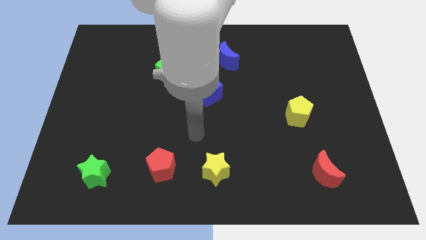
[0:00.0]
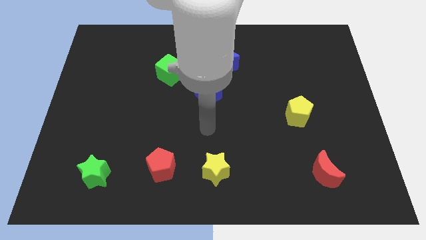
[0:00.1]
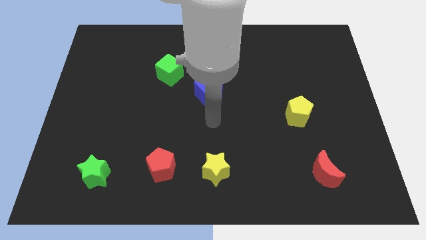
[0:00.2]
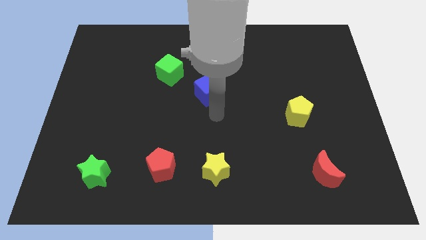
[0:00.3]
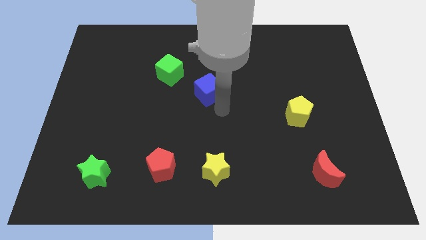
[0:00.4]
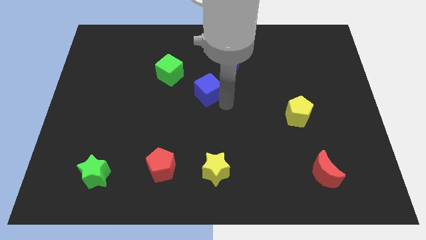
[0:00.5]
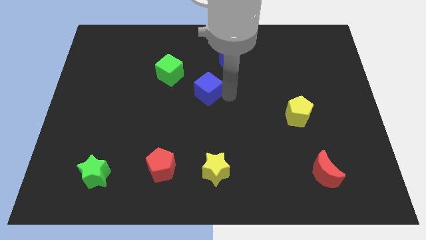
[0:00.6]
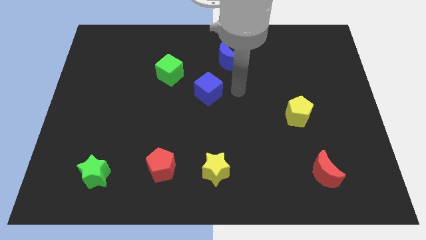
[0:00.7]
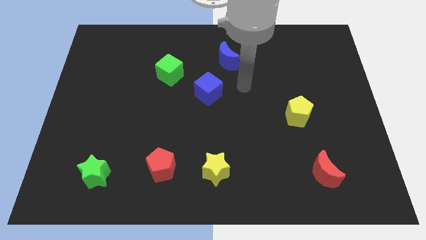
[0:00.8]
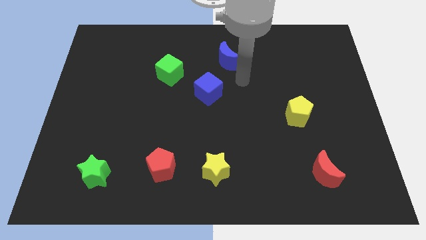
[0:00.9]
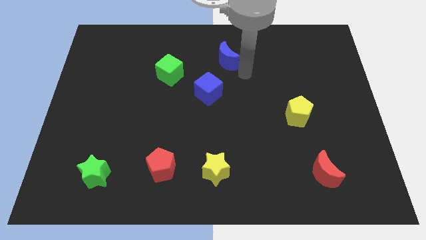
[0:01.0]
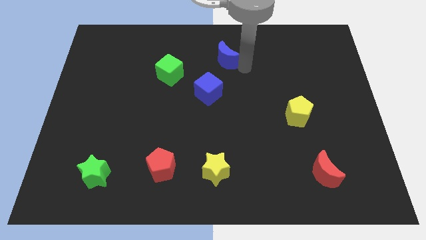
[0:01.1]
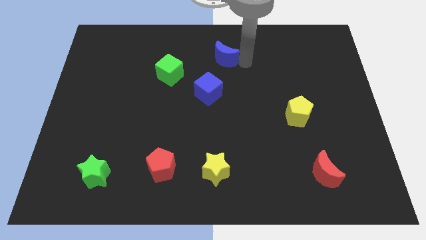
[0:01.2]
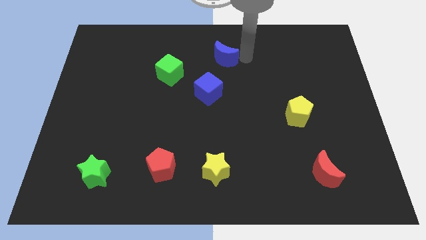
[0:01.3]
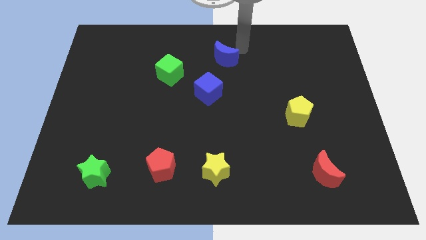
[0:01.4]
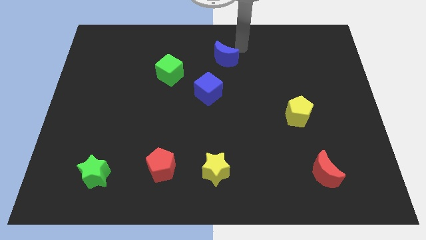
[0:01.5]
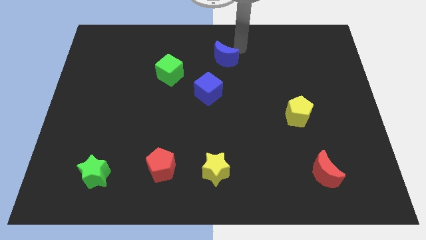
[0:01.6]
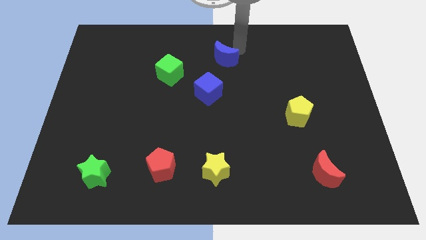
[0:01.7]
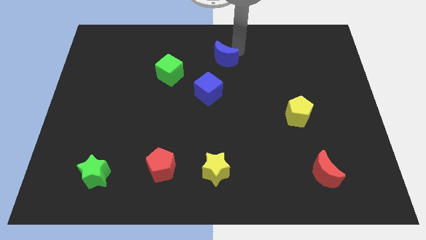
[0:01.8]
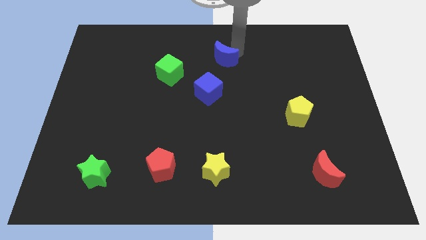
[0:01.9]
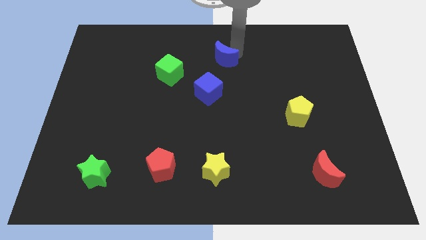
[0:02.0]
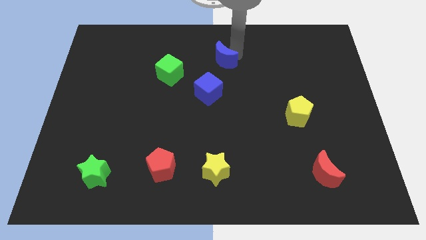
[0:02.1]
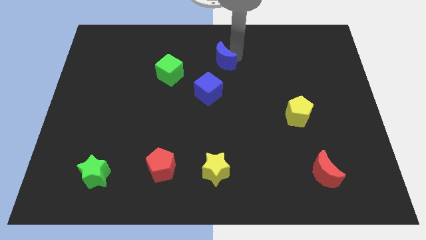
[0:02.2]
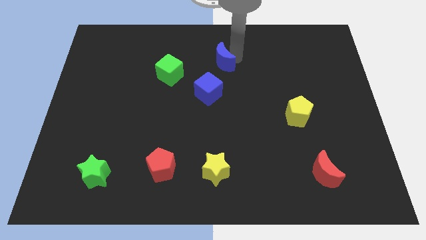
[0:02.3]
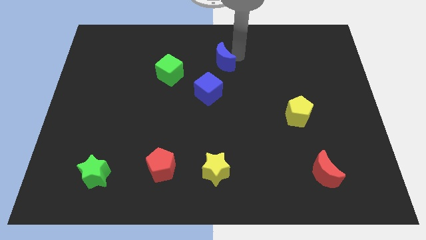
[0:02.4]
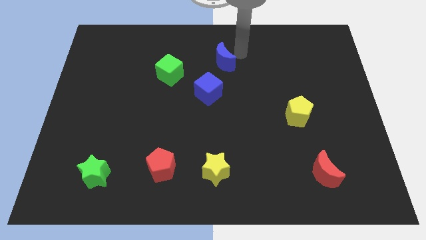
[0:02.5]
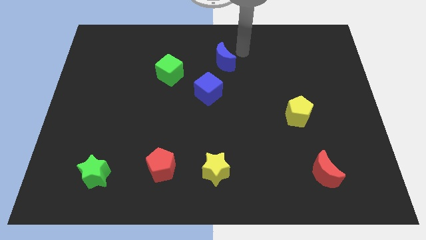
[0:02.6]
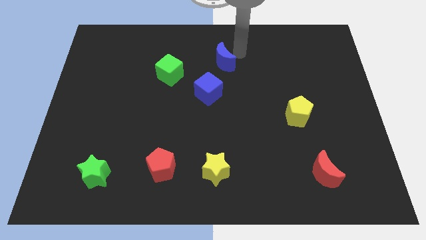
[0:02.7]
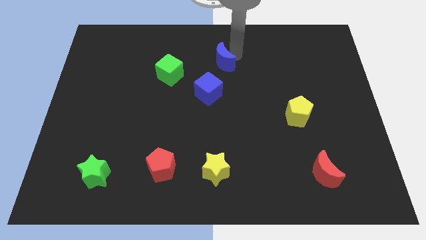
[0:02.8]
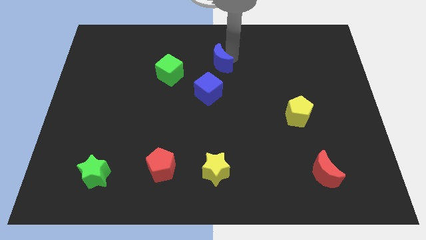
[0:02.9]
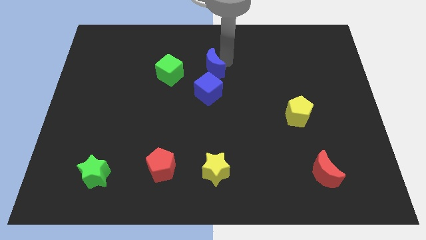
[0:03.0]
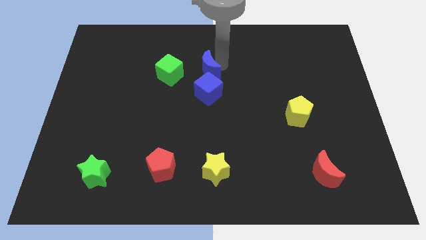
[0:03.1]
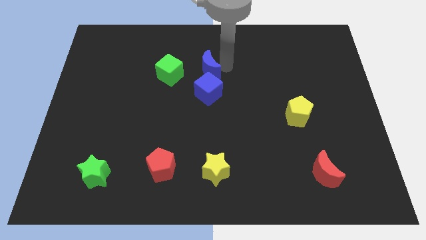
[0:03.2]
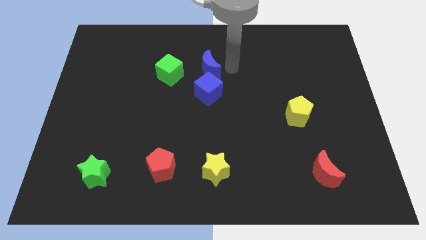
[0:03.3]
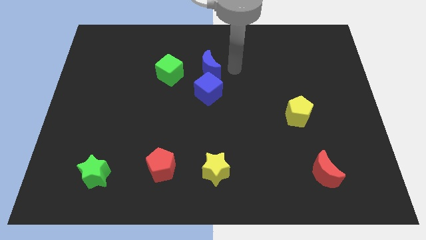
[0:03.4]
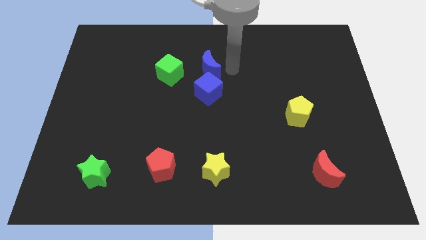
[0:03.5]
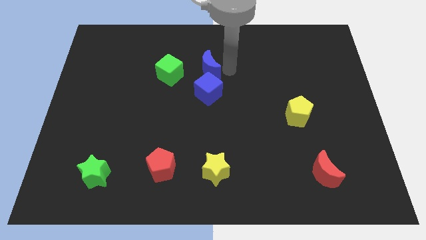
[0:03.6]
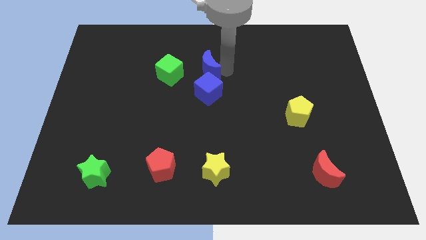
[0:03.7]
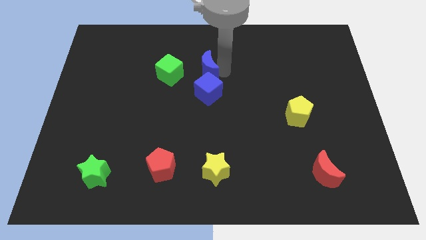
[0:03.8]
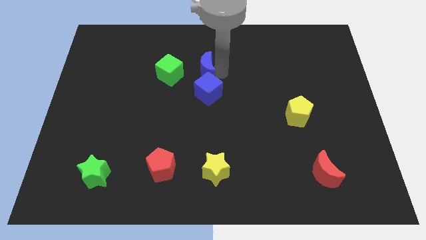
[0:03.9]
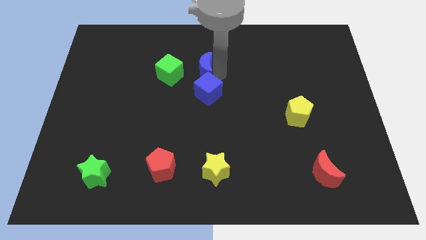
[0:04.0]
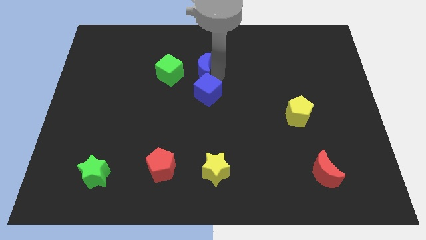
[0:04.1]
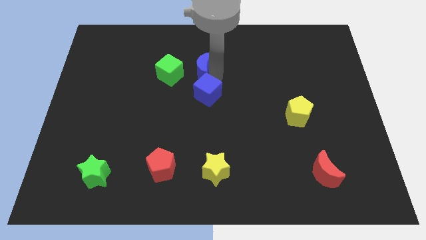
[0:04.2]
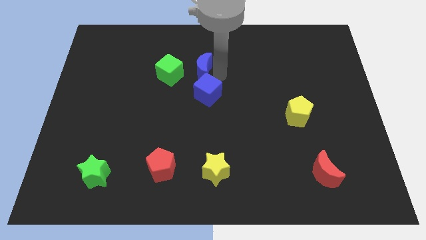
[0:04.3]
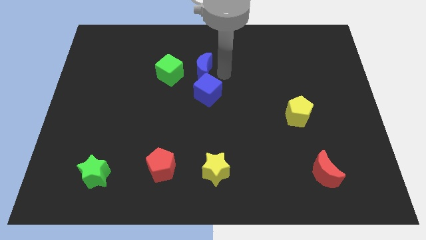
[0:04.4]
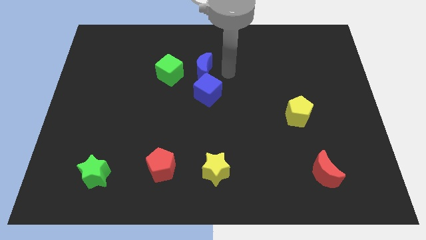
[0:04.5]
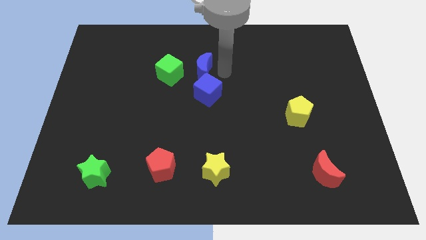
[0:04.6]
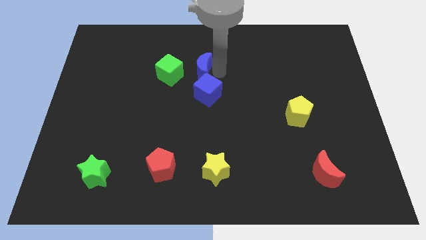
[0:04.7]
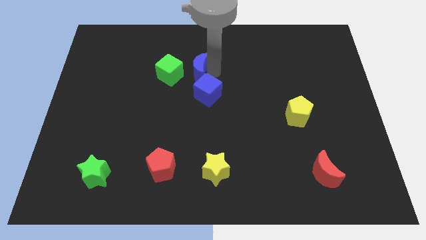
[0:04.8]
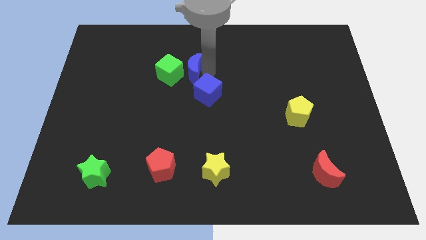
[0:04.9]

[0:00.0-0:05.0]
slide the blue moon to the green cube

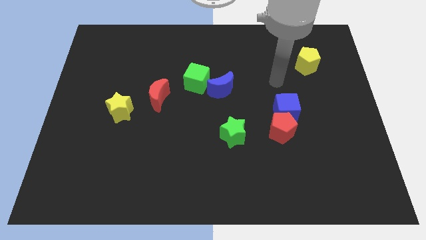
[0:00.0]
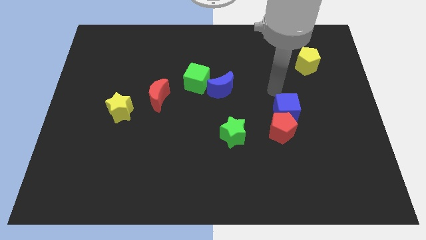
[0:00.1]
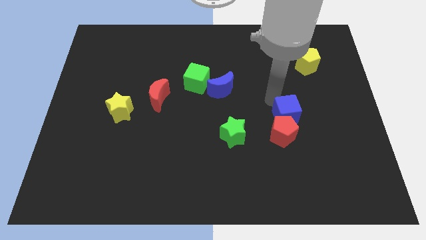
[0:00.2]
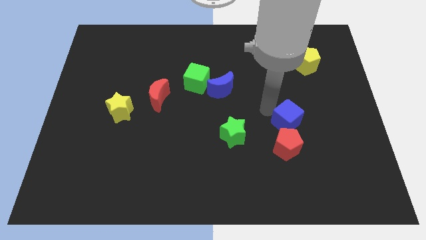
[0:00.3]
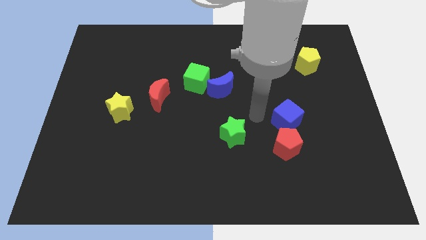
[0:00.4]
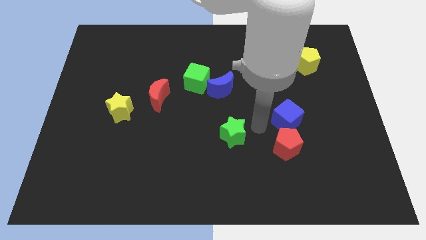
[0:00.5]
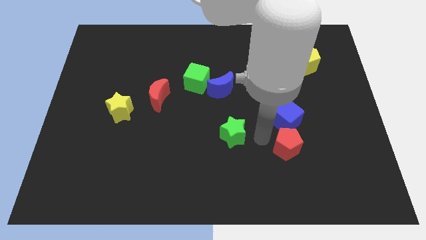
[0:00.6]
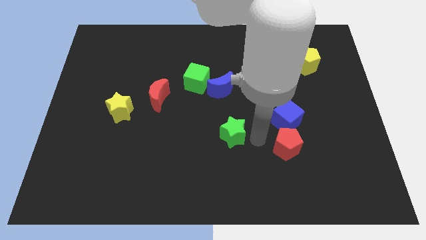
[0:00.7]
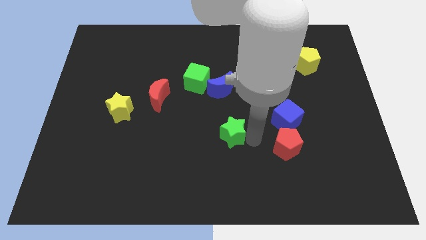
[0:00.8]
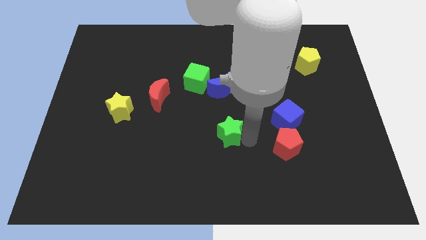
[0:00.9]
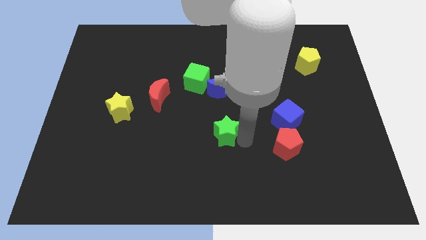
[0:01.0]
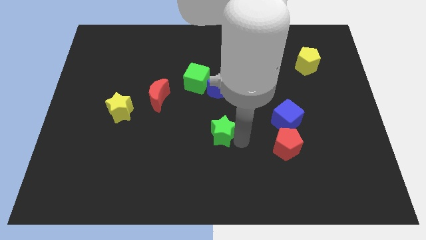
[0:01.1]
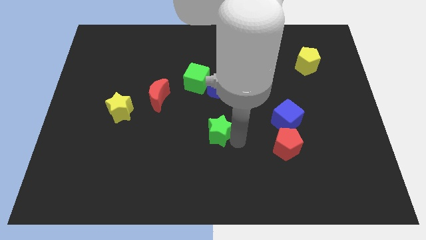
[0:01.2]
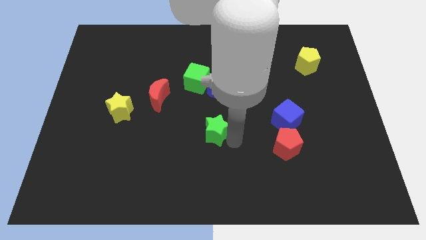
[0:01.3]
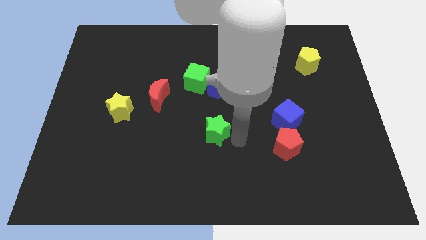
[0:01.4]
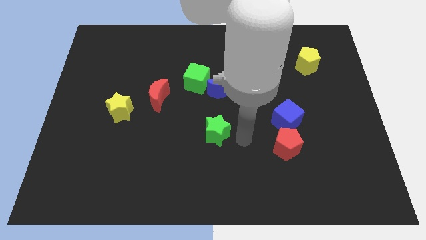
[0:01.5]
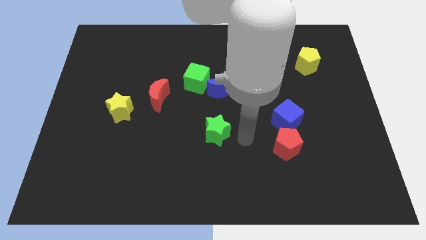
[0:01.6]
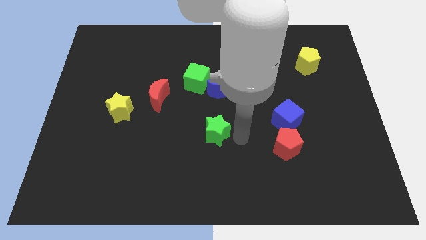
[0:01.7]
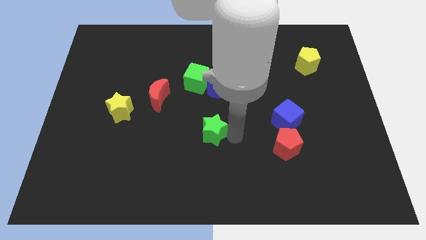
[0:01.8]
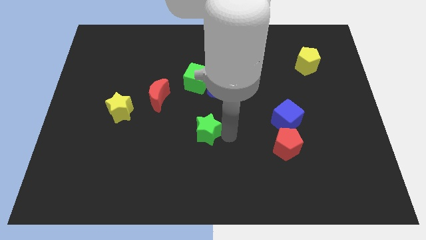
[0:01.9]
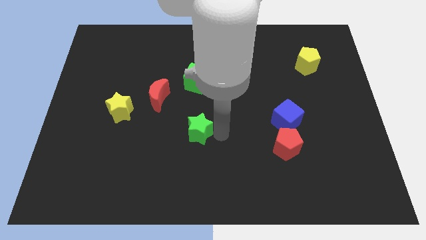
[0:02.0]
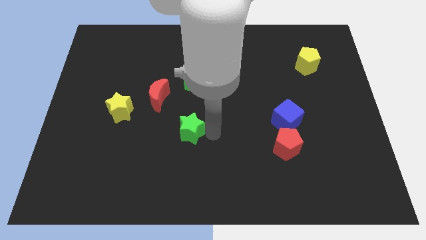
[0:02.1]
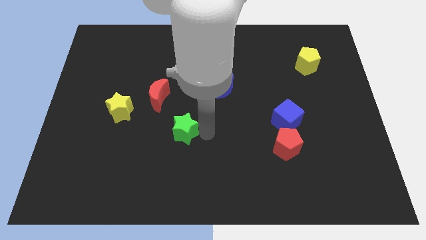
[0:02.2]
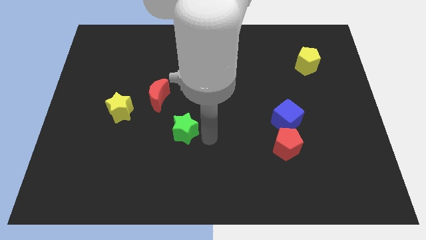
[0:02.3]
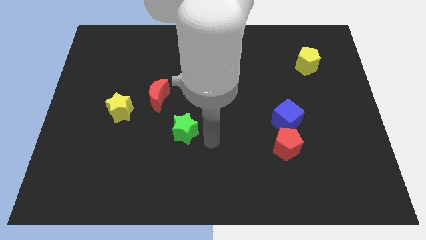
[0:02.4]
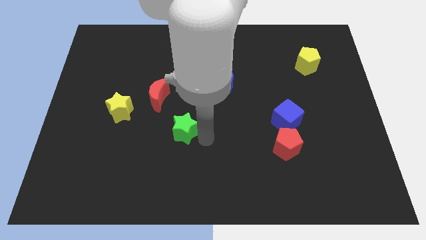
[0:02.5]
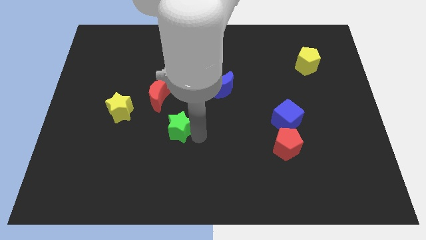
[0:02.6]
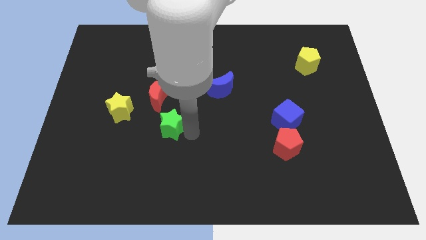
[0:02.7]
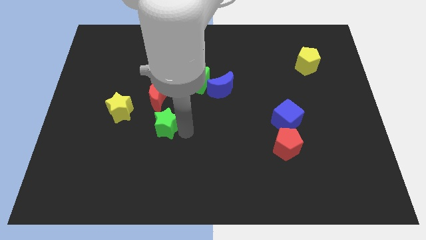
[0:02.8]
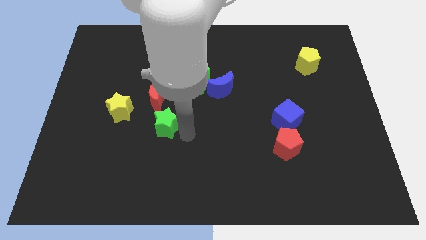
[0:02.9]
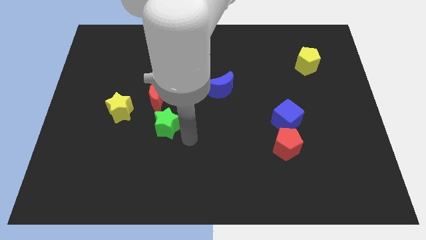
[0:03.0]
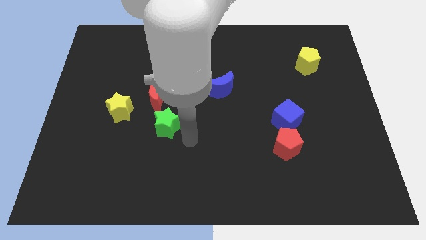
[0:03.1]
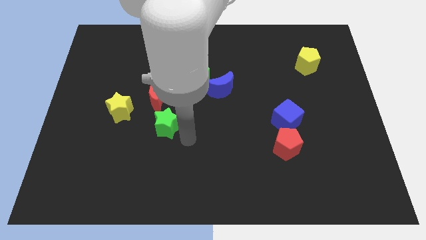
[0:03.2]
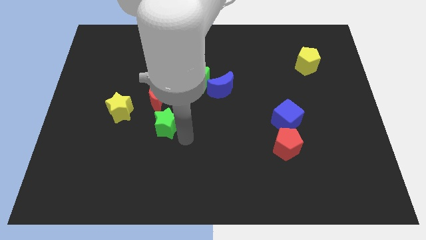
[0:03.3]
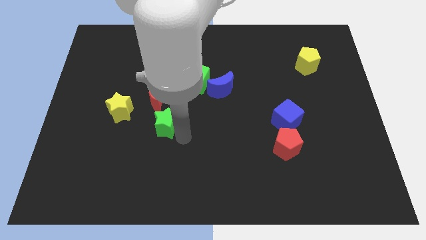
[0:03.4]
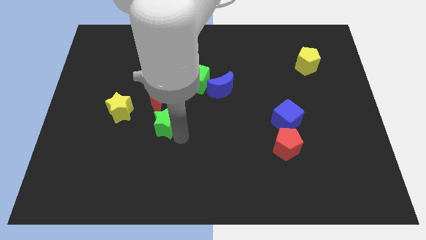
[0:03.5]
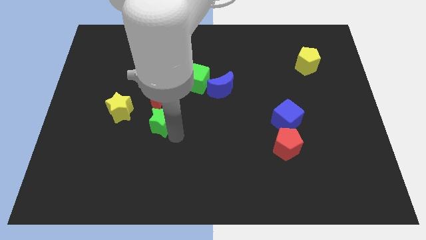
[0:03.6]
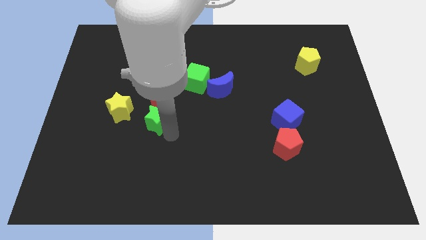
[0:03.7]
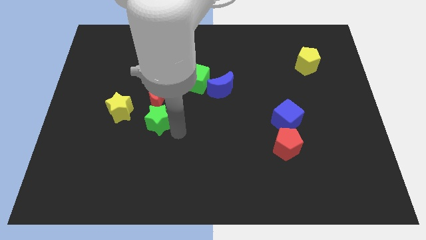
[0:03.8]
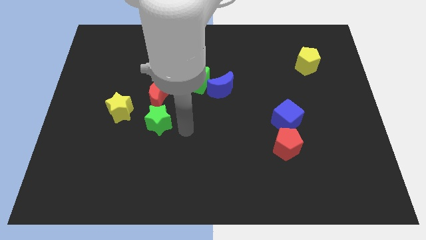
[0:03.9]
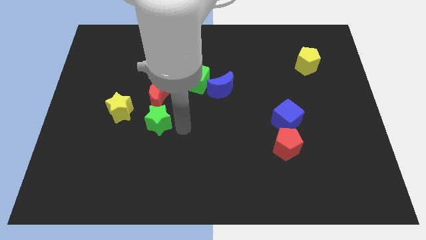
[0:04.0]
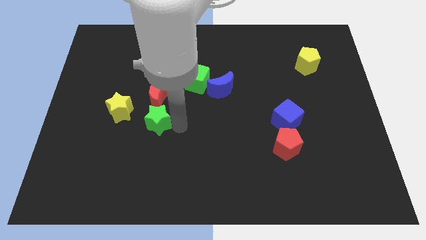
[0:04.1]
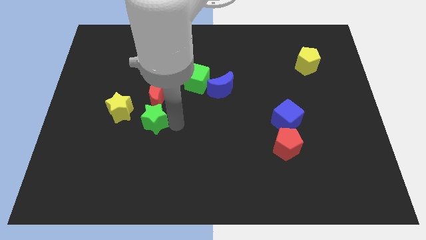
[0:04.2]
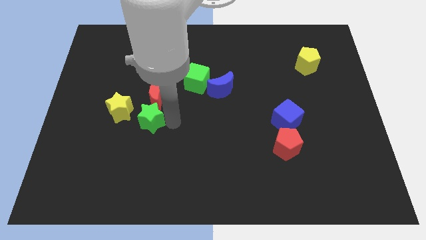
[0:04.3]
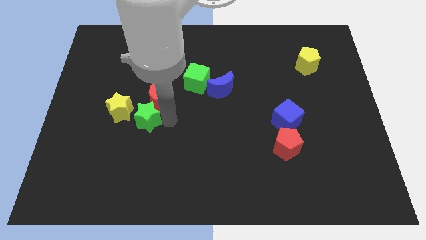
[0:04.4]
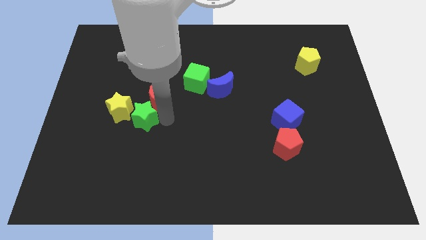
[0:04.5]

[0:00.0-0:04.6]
move the green star towards the yellow star
